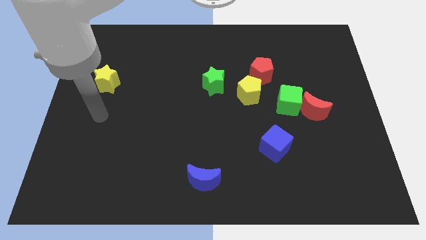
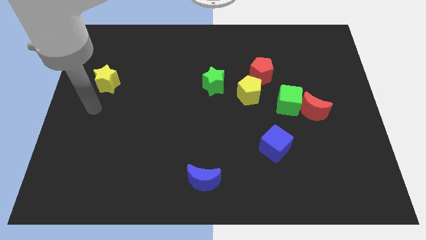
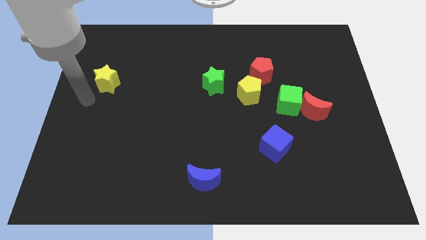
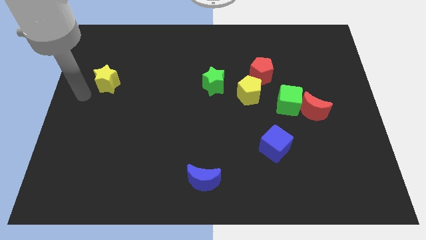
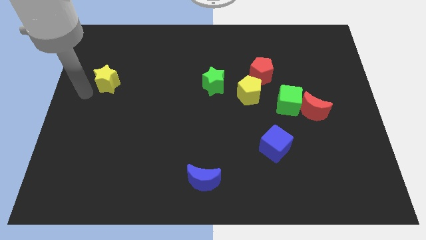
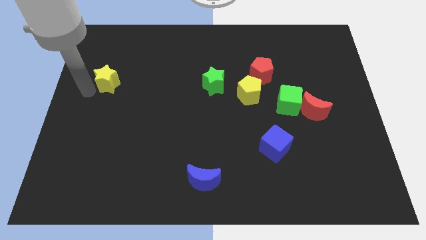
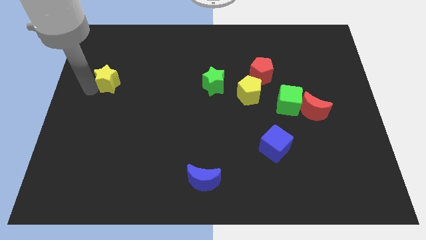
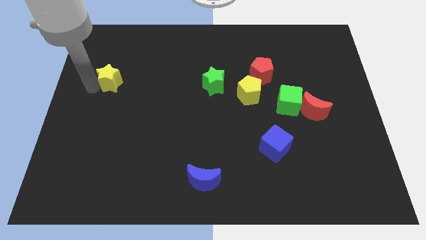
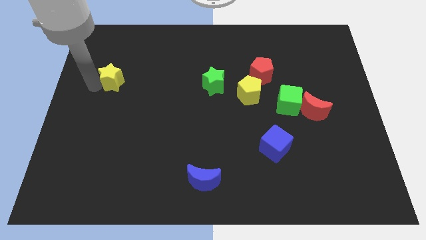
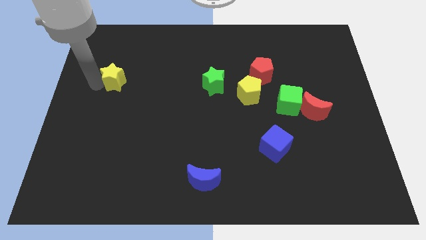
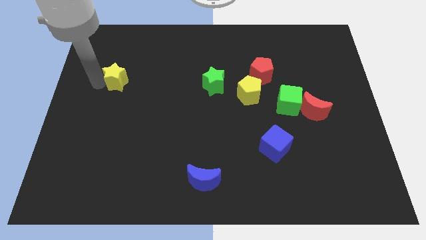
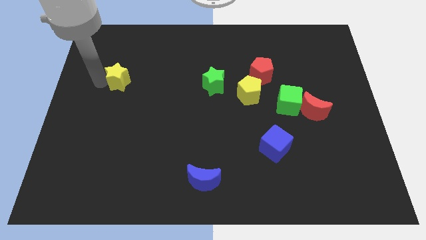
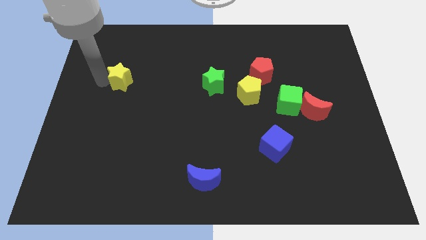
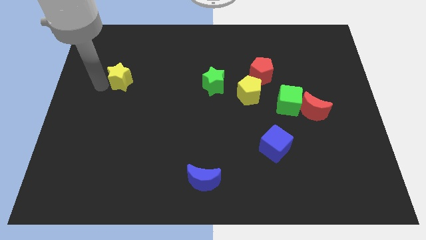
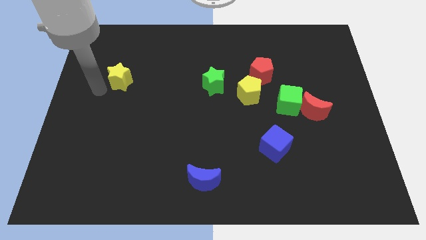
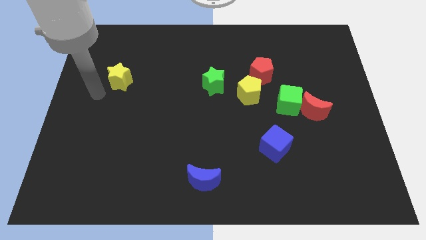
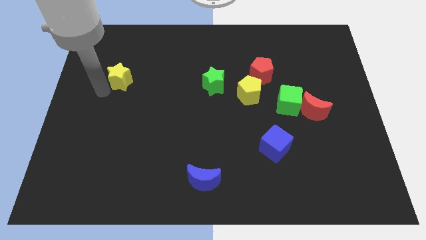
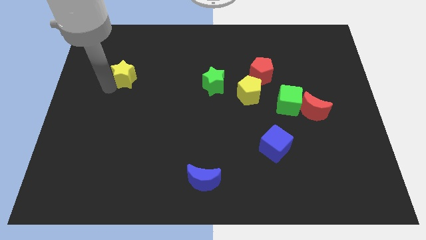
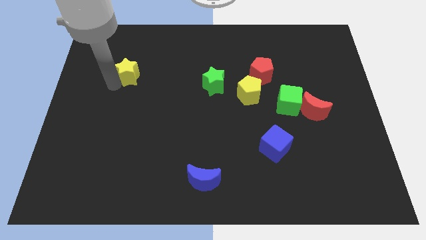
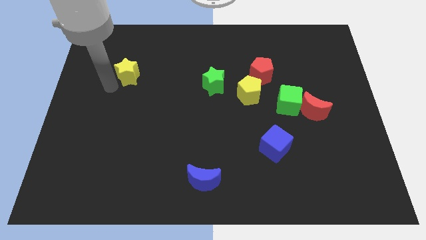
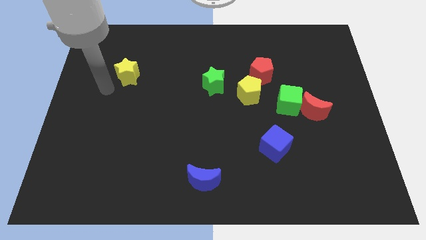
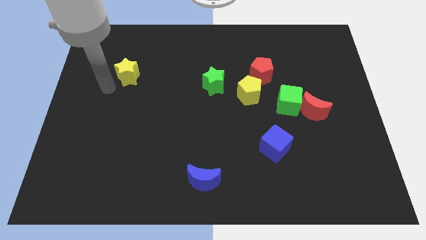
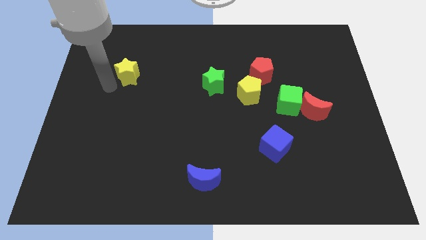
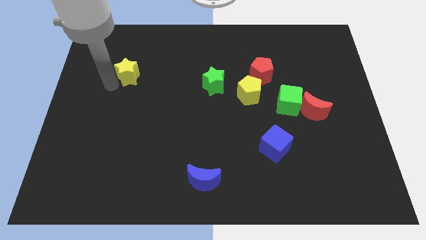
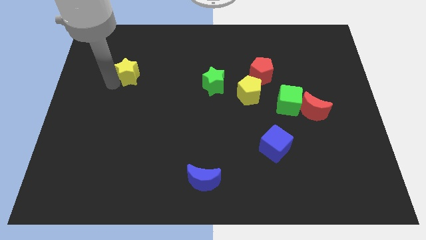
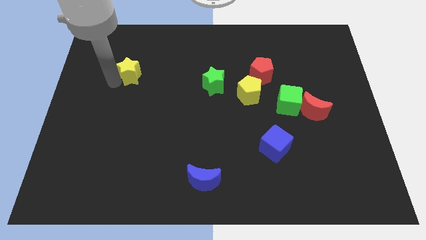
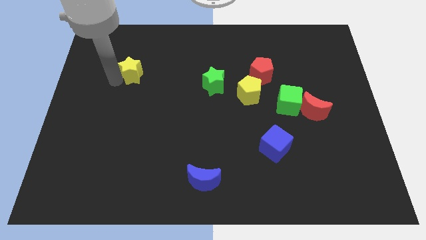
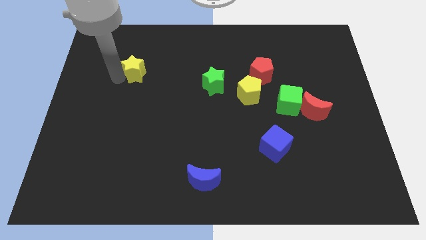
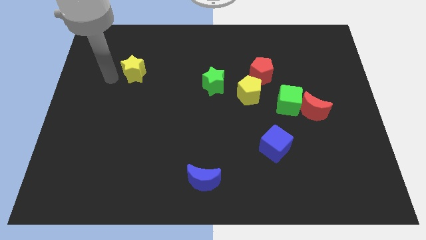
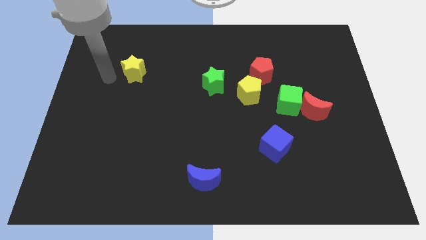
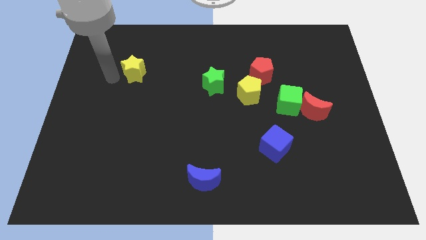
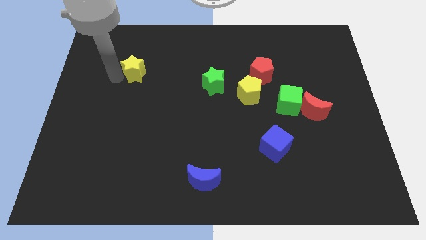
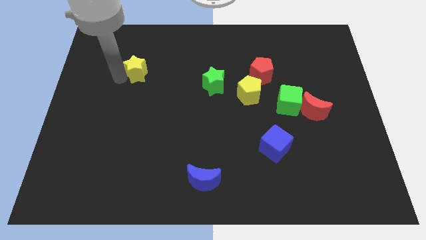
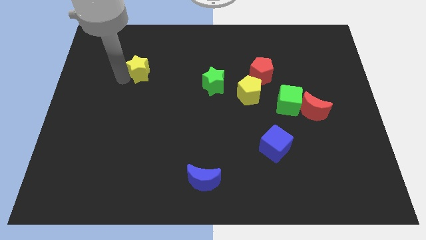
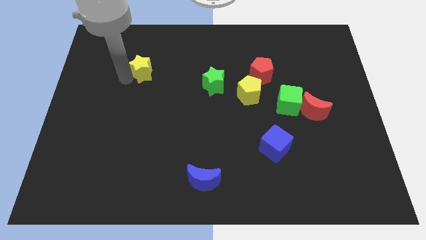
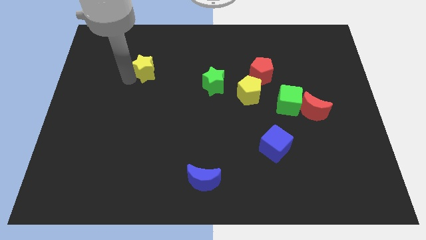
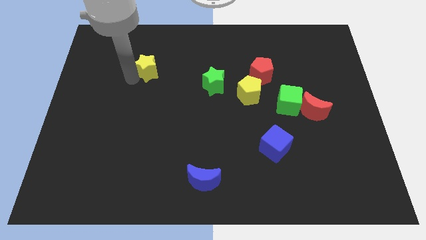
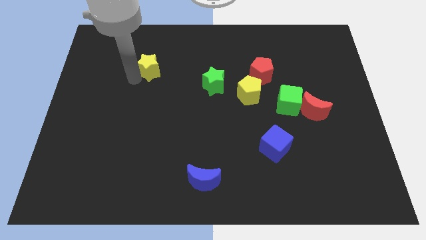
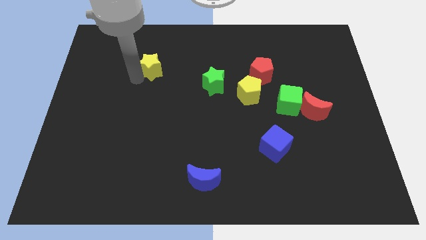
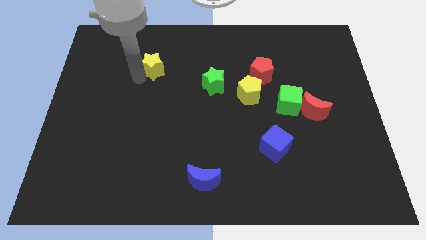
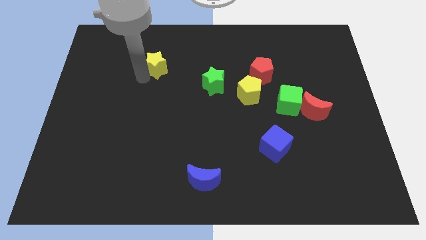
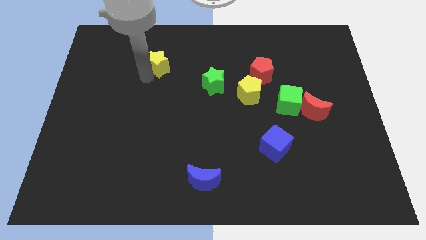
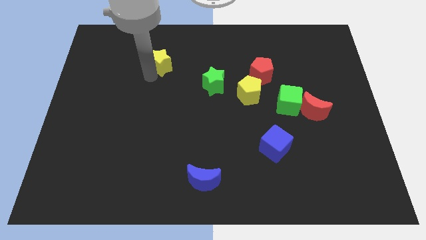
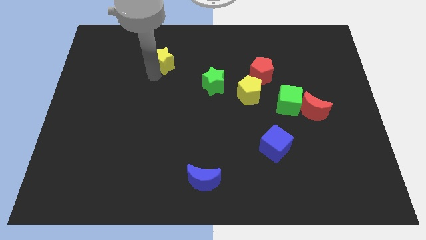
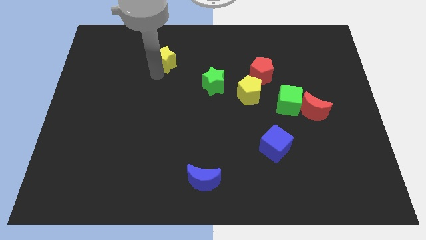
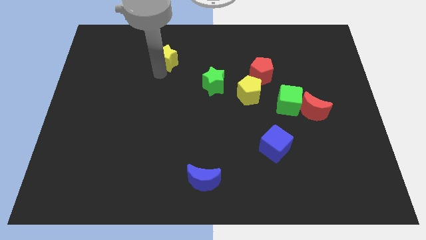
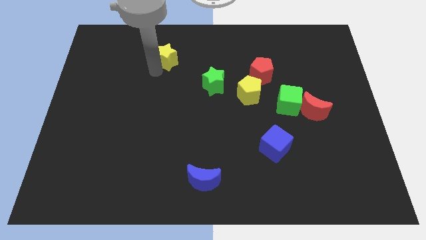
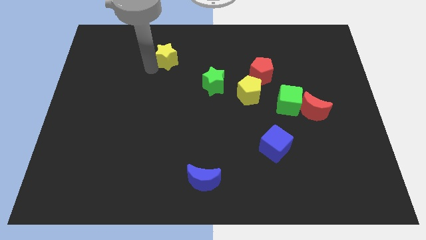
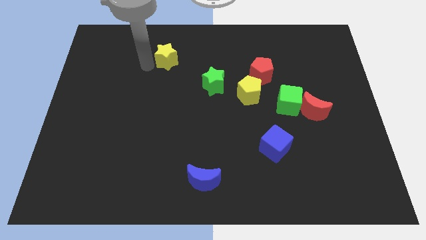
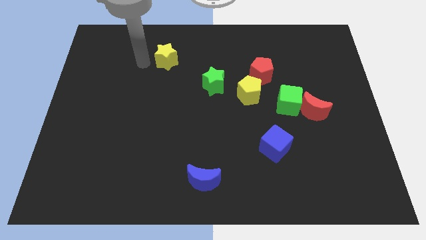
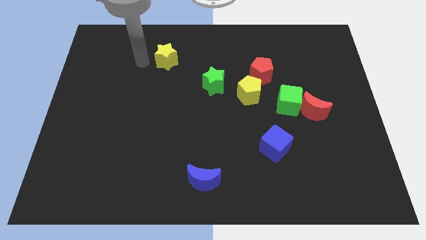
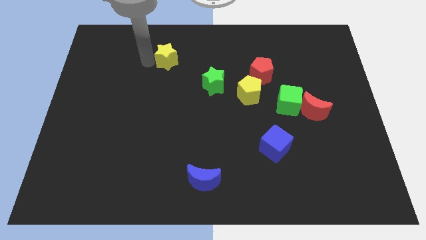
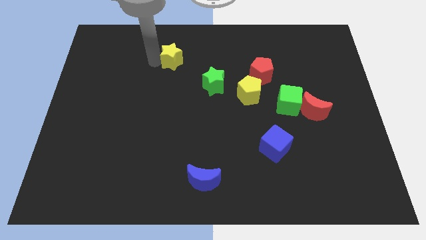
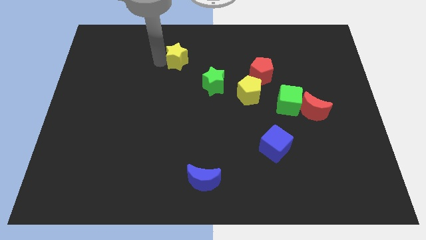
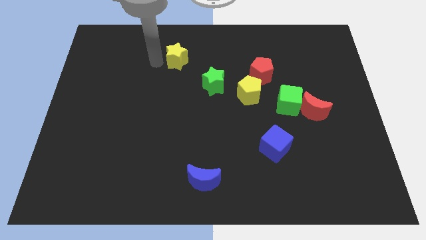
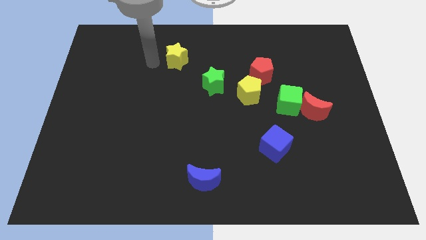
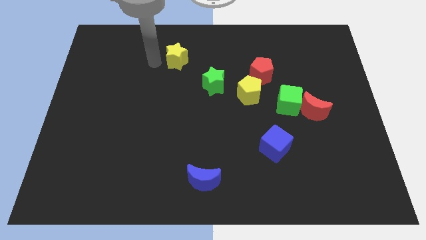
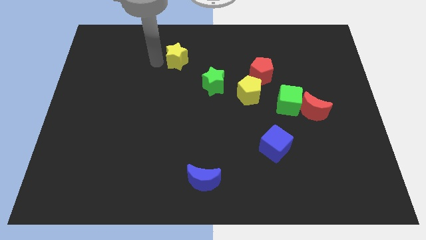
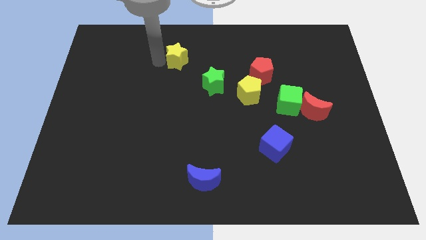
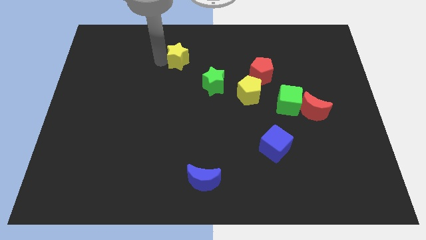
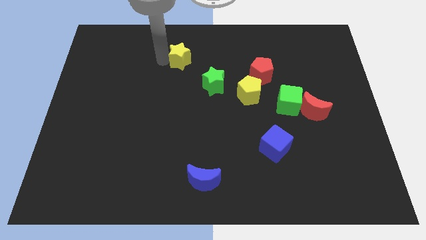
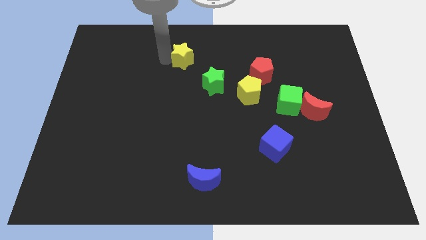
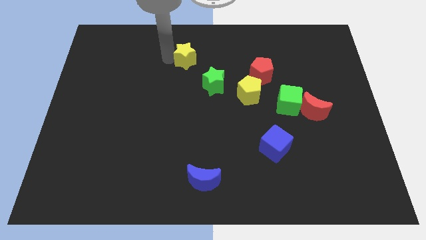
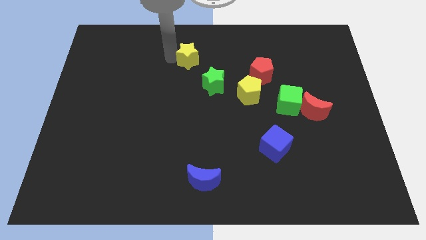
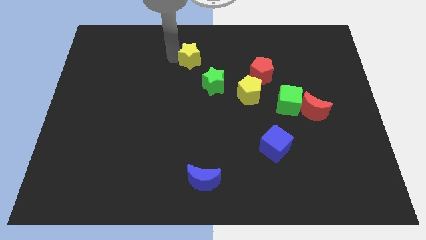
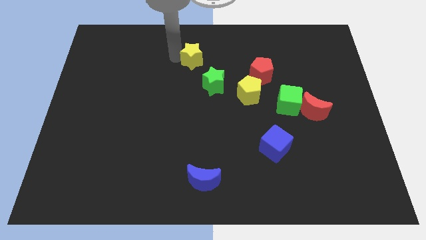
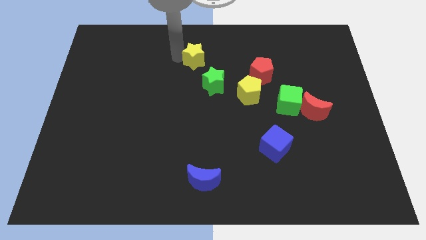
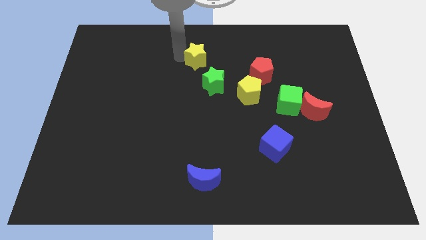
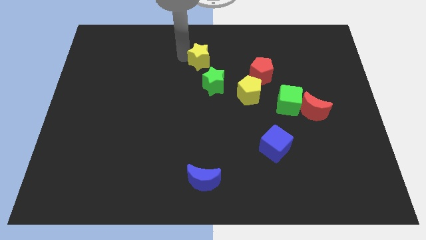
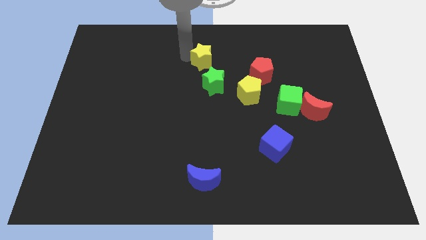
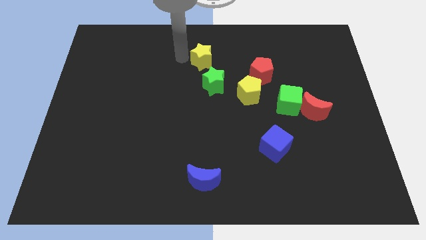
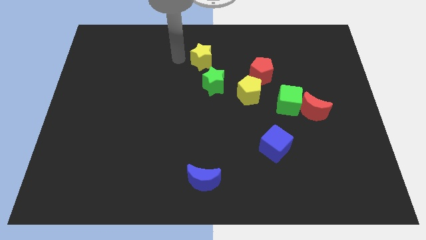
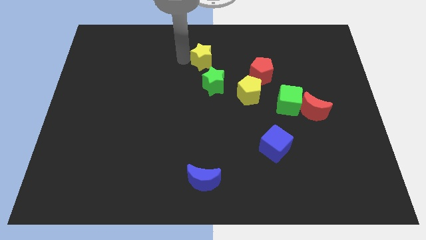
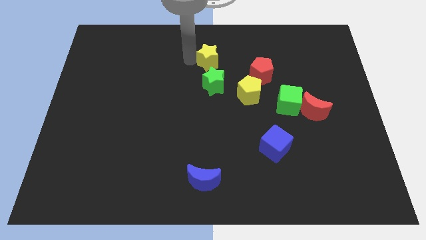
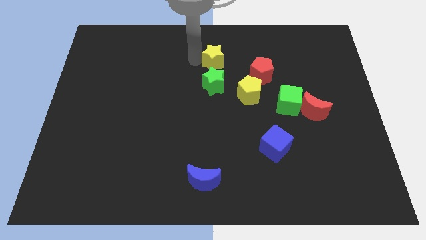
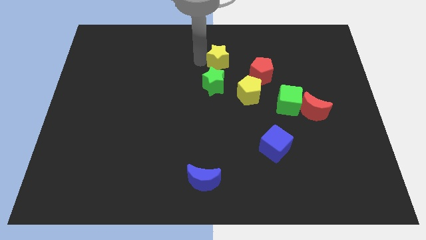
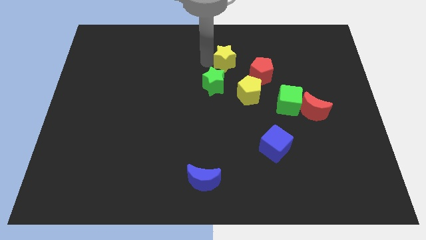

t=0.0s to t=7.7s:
slide the yellow star to the top left side of the red pentagon
